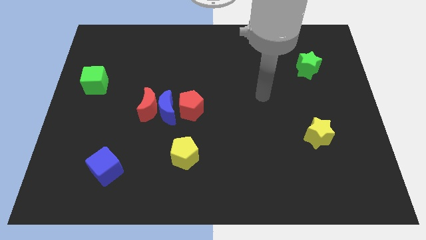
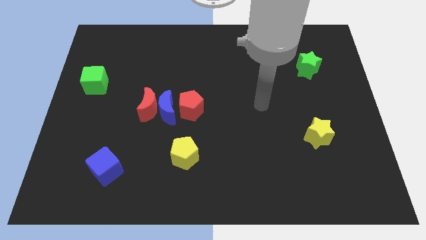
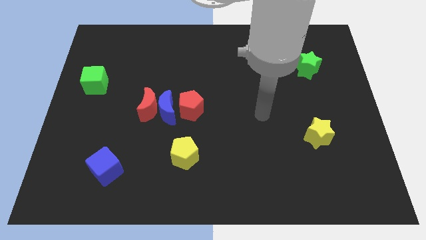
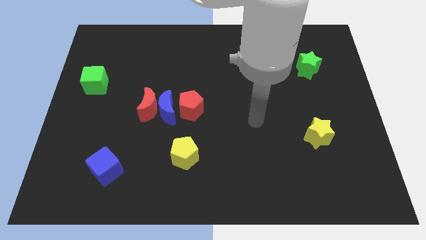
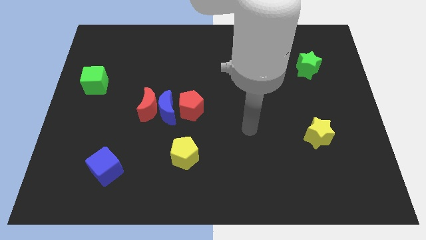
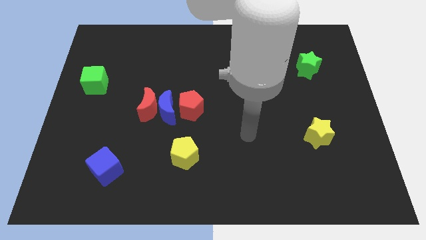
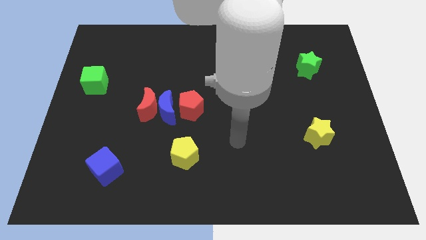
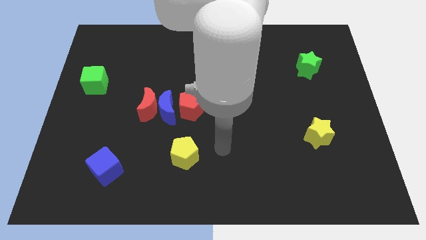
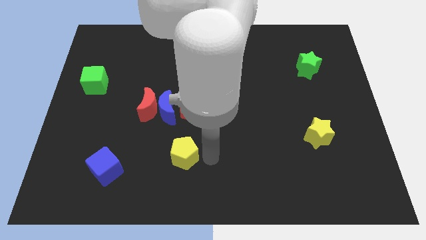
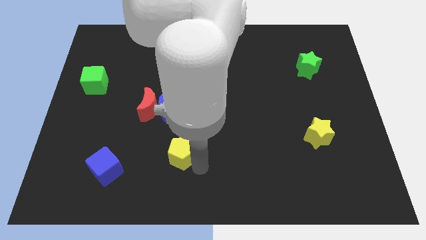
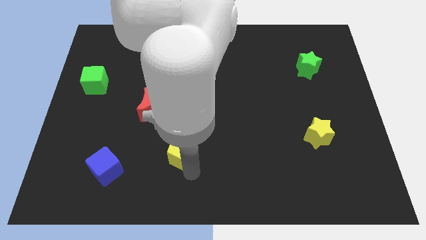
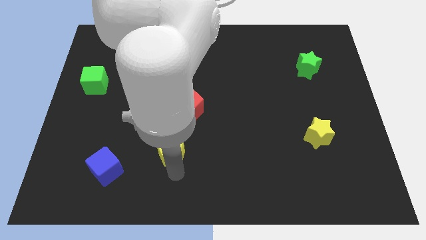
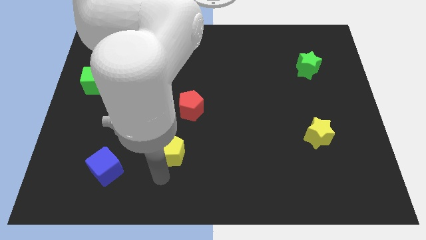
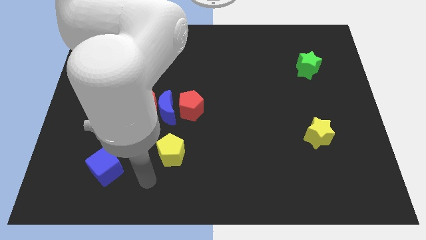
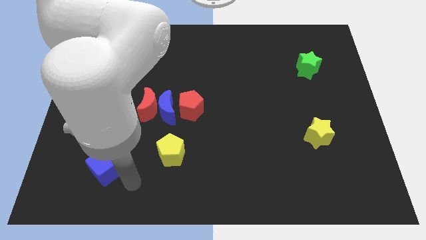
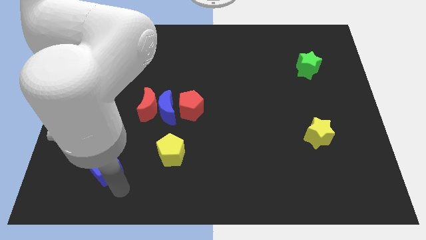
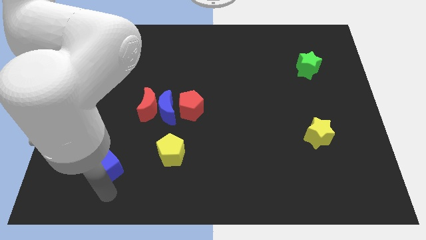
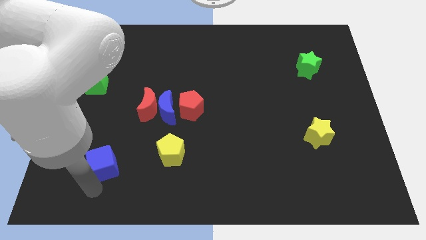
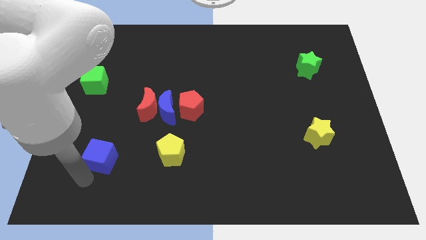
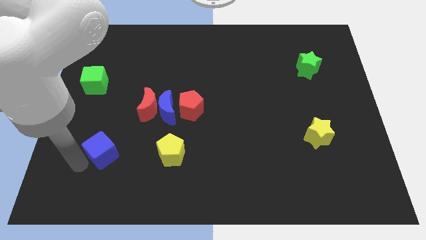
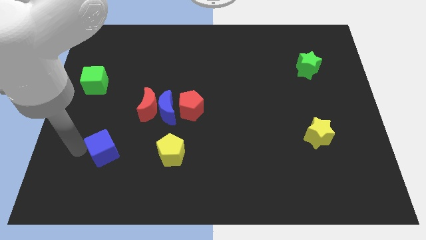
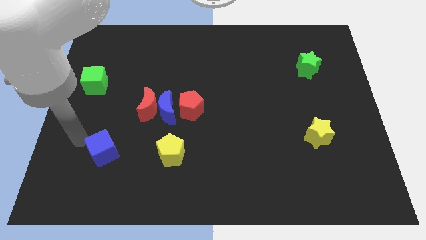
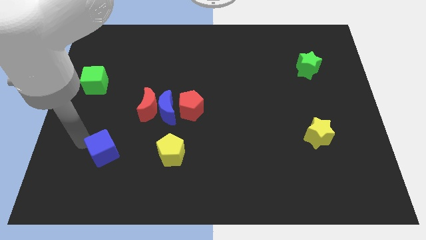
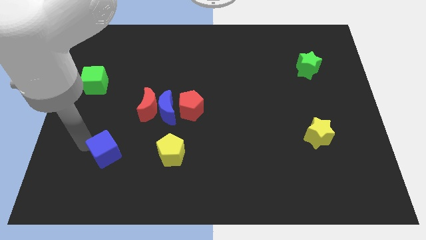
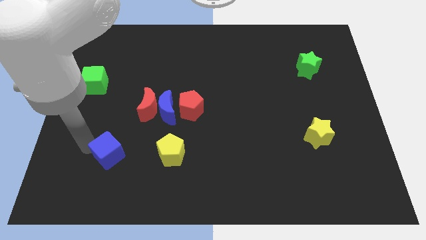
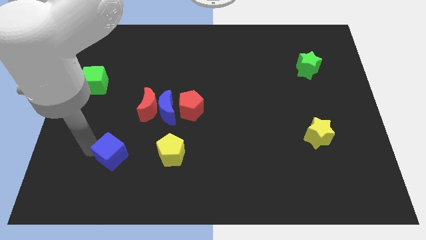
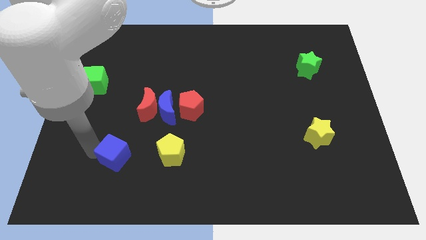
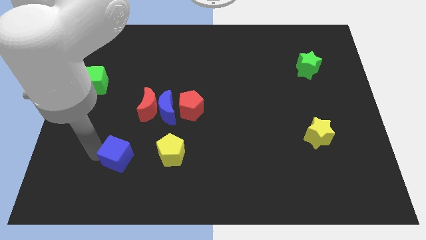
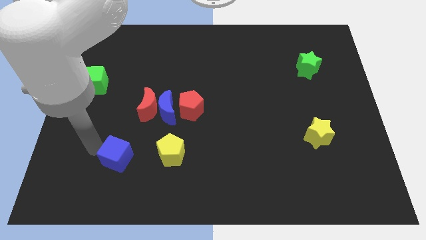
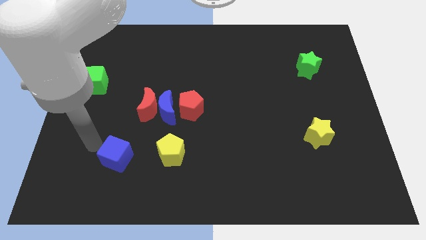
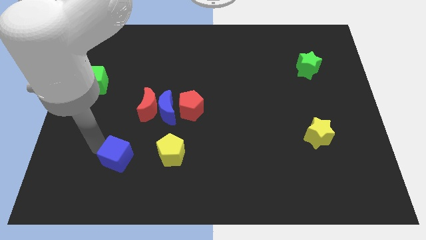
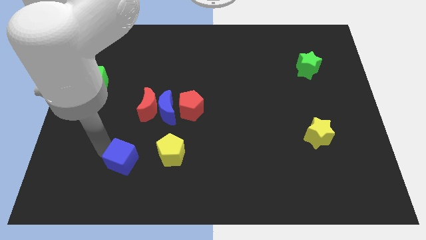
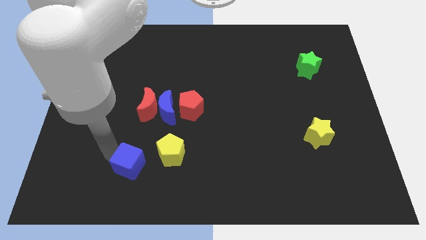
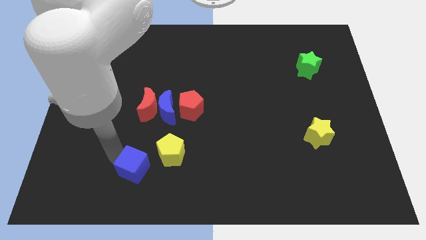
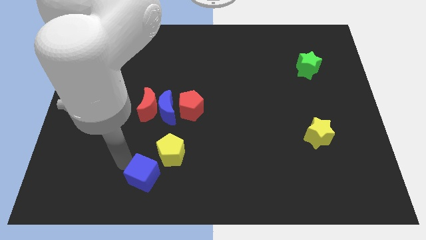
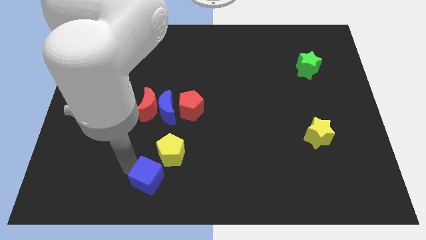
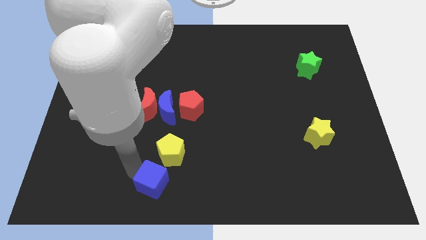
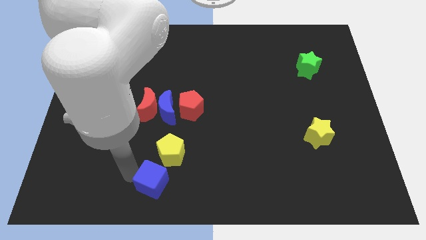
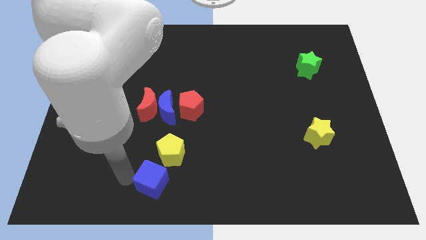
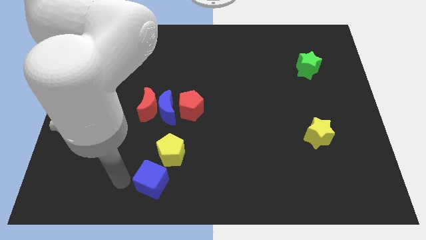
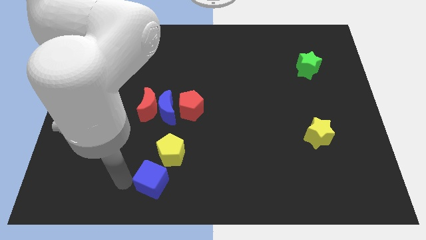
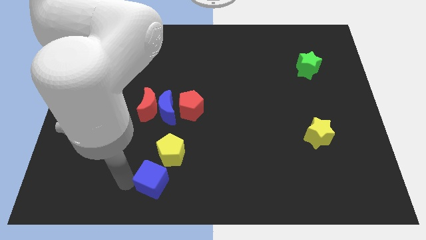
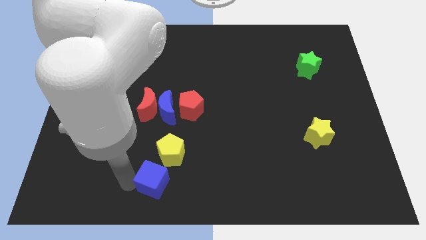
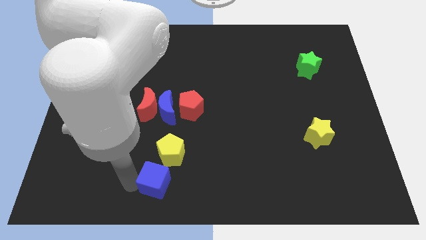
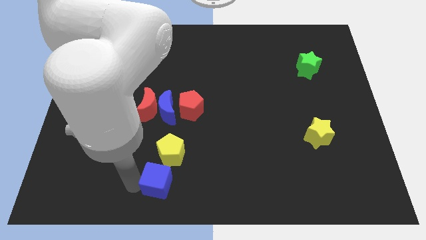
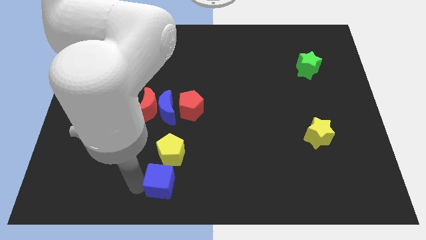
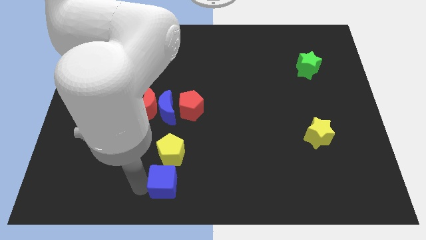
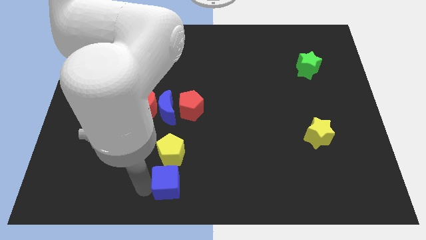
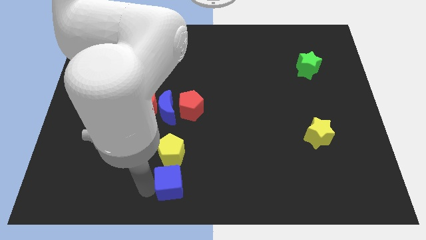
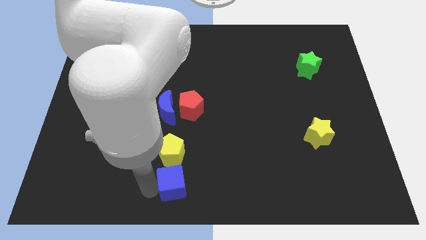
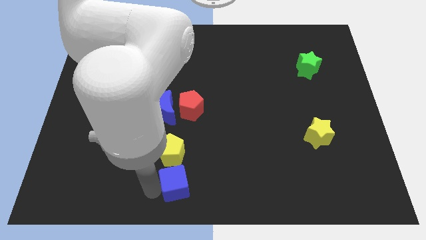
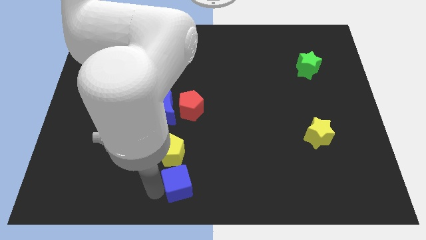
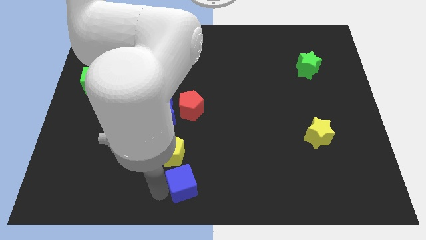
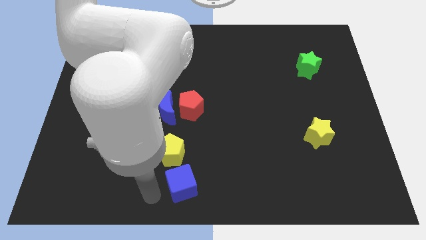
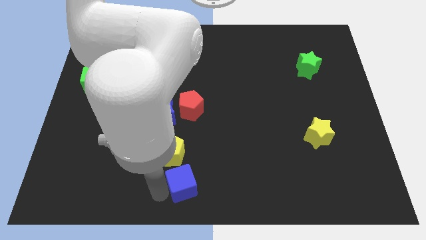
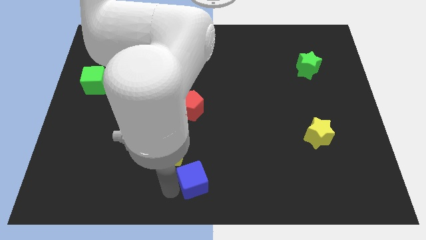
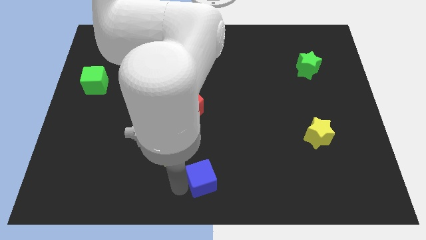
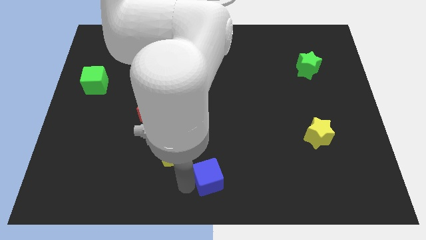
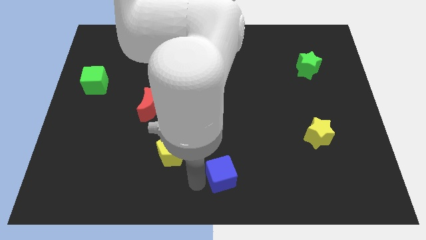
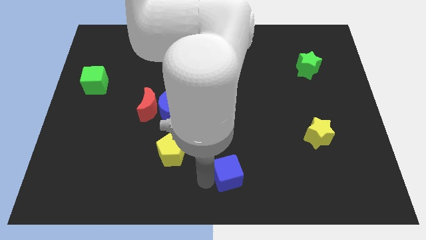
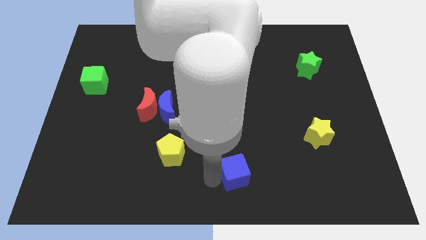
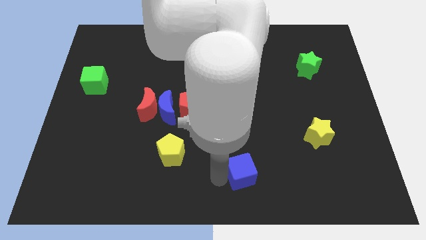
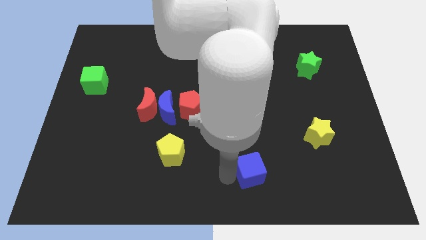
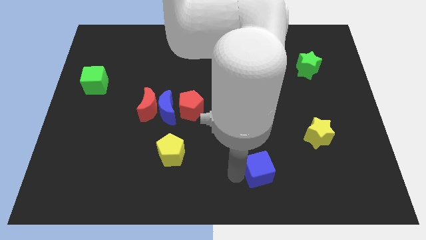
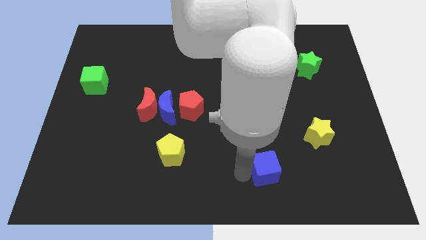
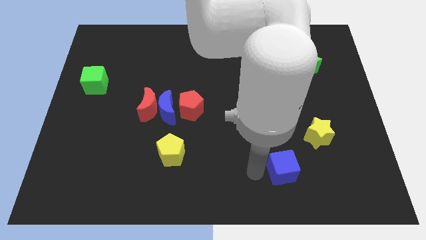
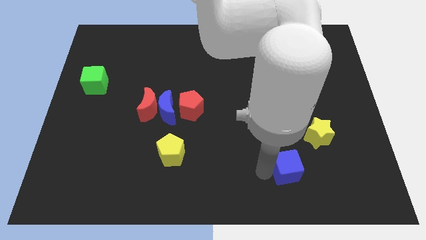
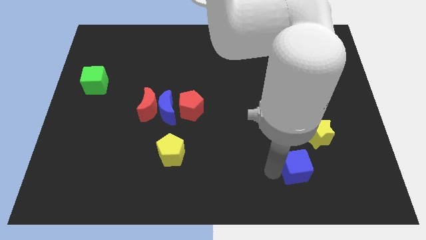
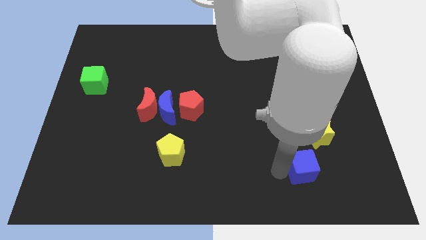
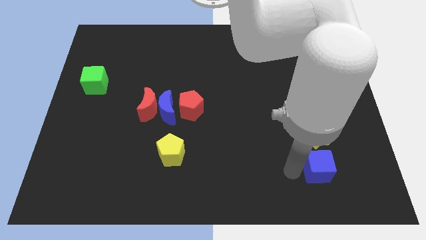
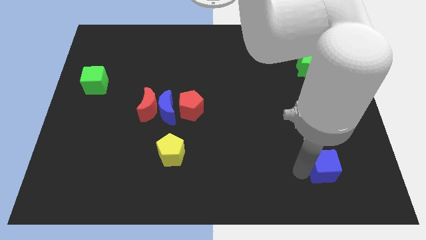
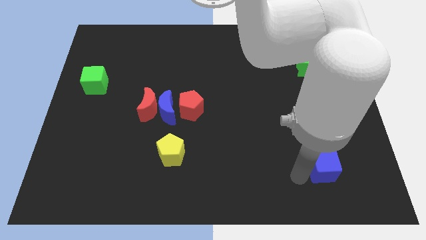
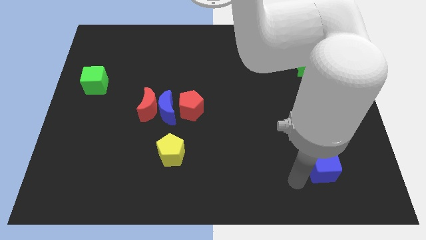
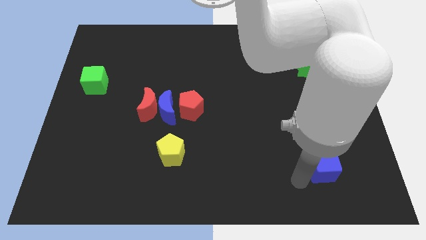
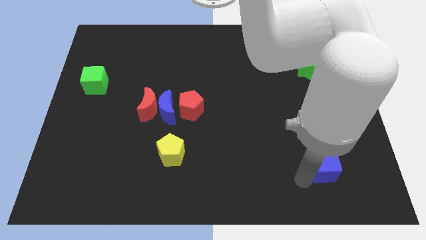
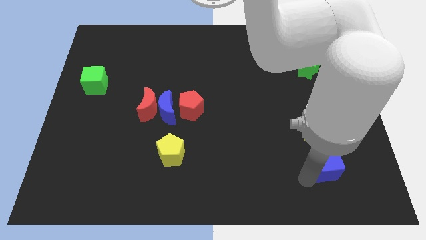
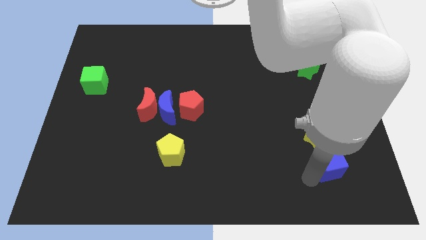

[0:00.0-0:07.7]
move the blue cube to the bottom right side of the yellow star

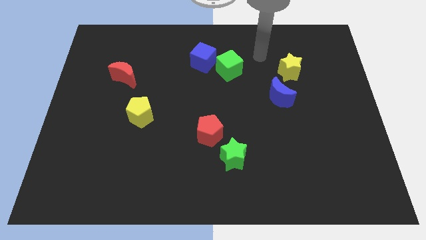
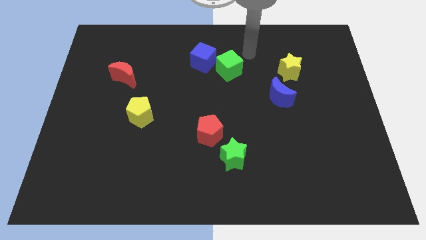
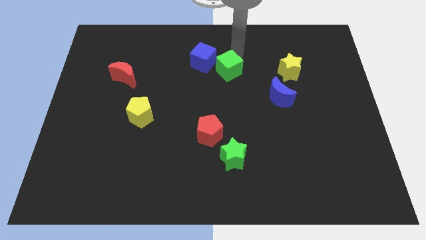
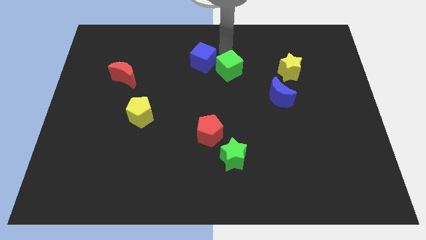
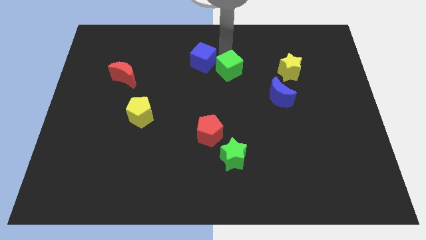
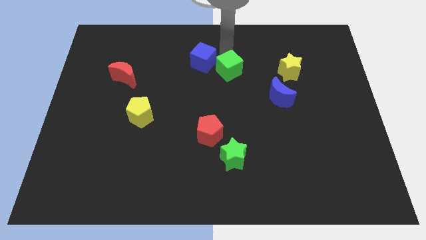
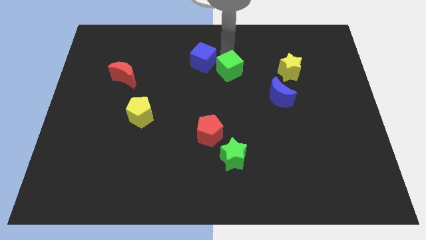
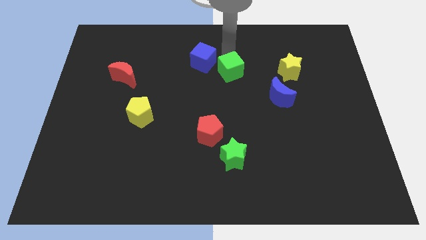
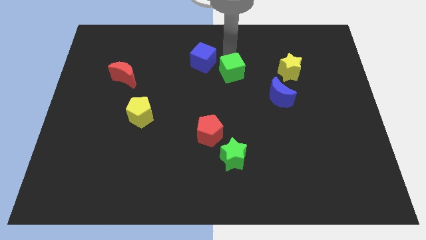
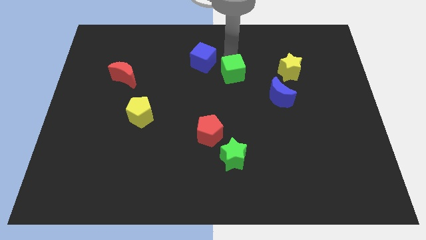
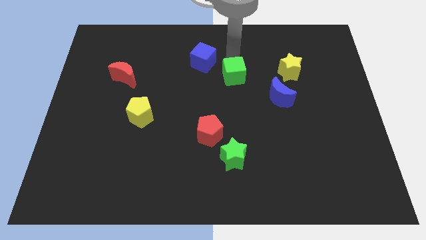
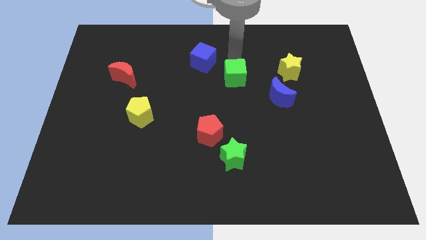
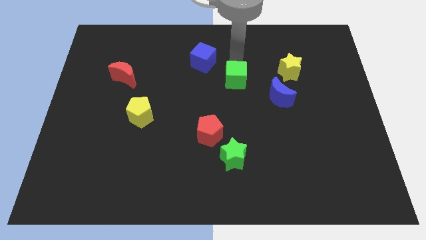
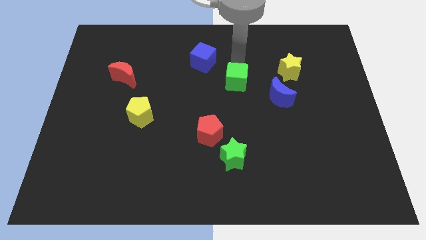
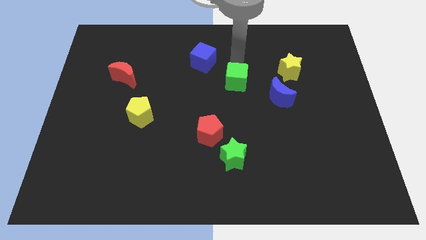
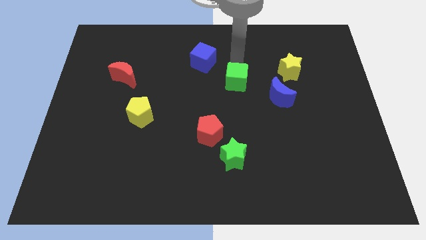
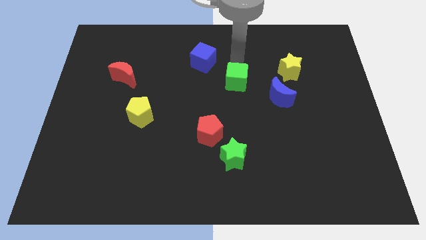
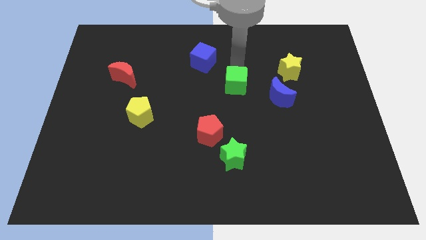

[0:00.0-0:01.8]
push the green cube just left of the blue moon
